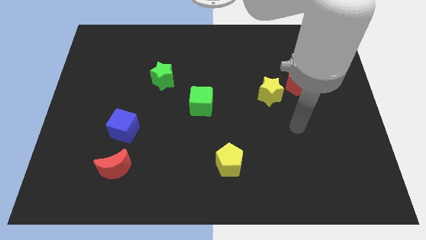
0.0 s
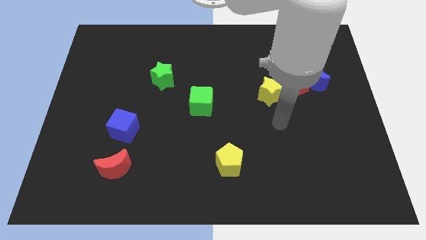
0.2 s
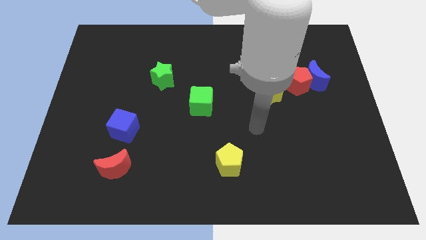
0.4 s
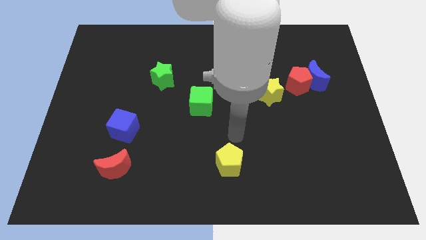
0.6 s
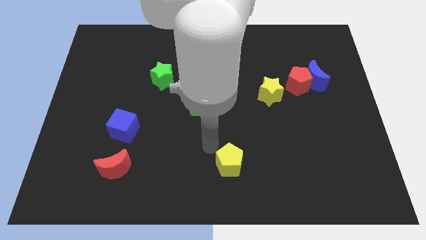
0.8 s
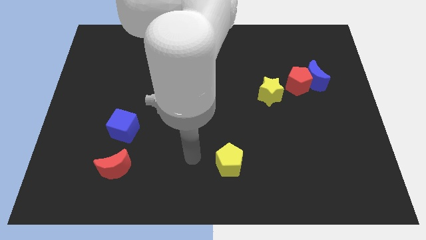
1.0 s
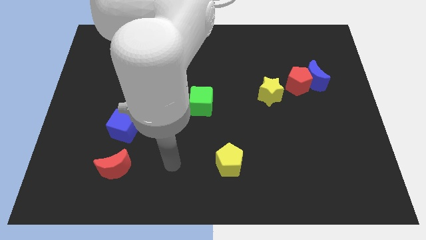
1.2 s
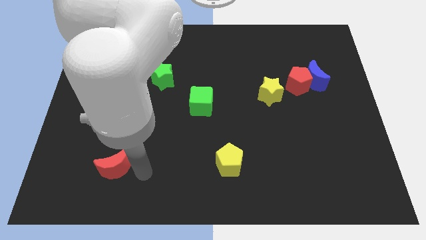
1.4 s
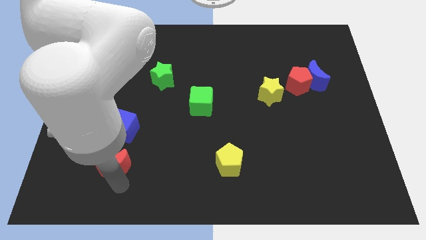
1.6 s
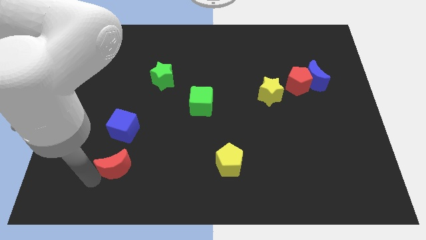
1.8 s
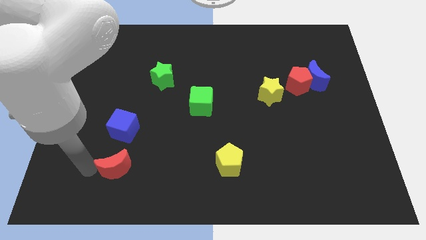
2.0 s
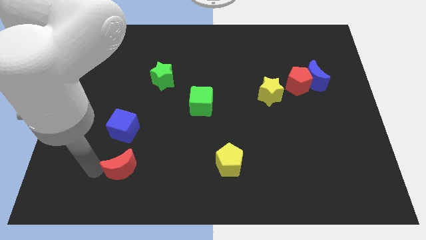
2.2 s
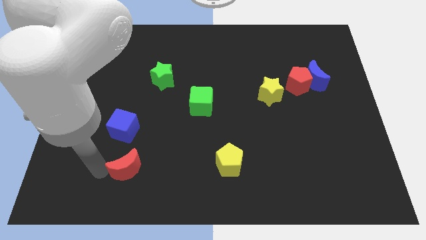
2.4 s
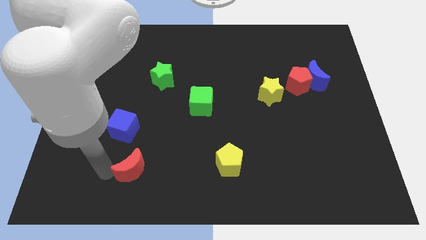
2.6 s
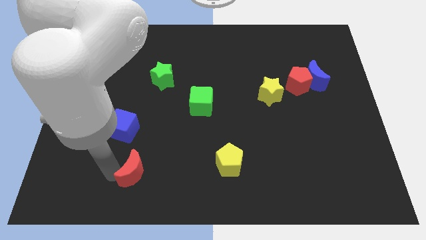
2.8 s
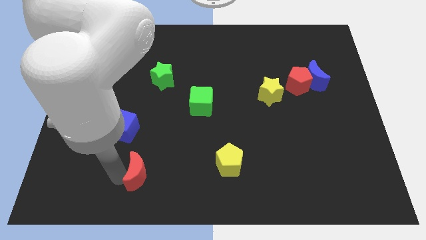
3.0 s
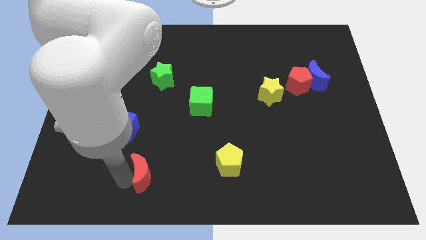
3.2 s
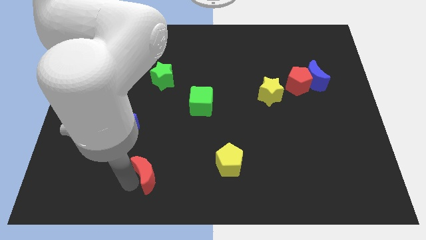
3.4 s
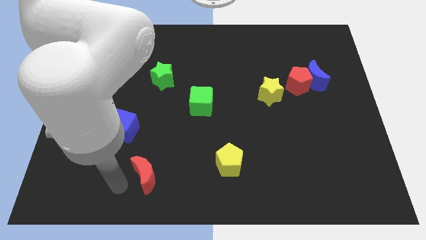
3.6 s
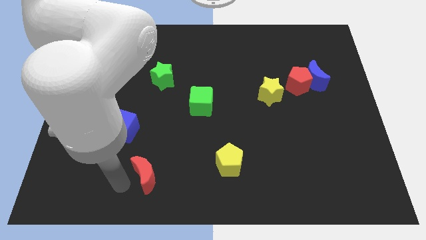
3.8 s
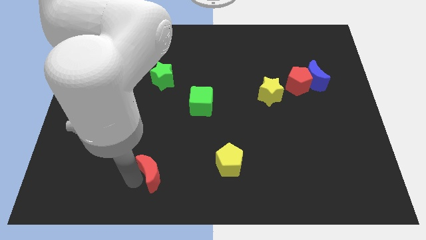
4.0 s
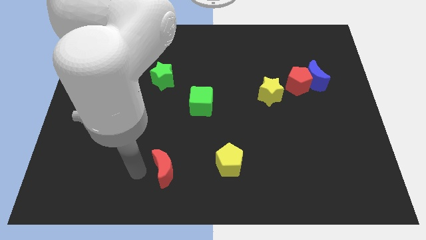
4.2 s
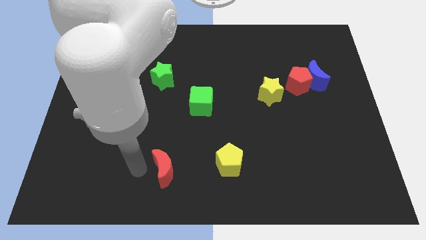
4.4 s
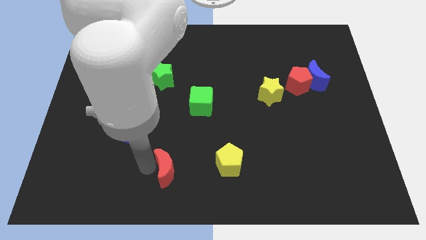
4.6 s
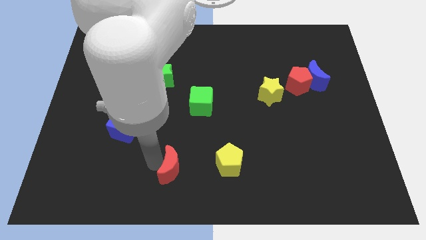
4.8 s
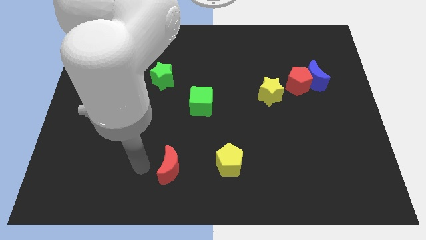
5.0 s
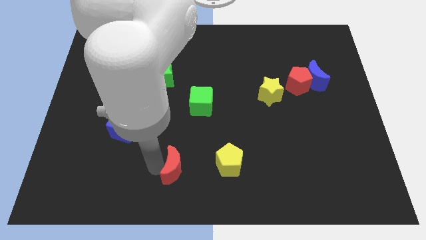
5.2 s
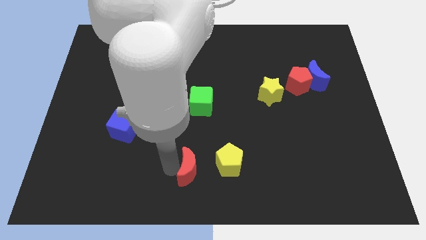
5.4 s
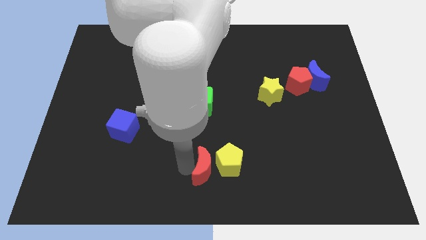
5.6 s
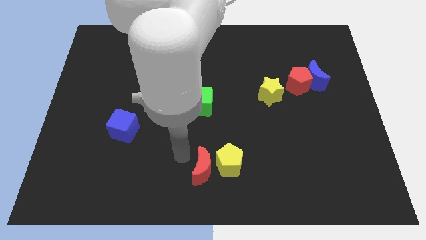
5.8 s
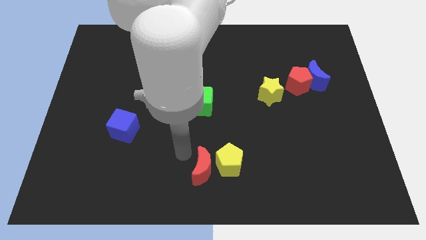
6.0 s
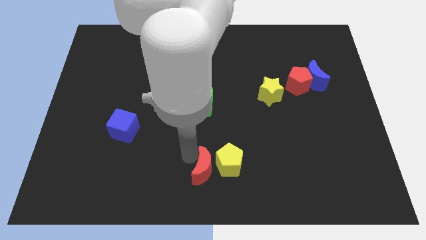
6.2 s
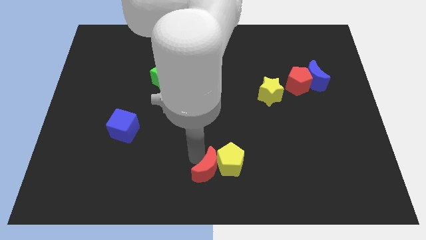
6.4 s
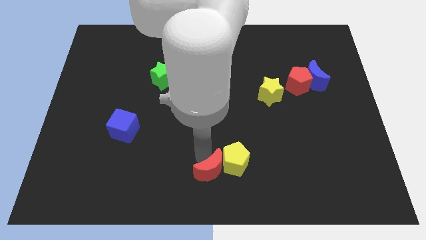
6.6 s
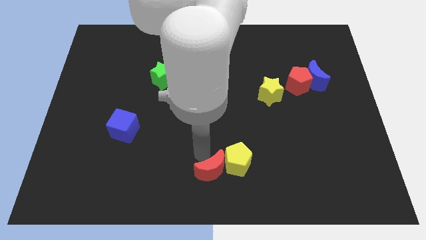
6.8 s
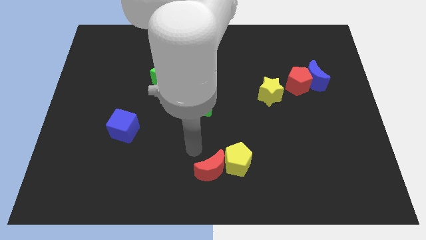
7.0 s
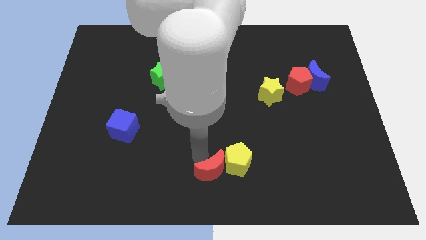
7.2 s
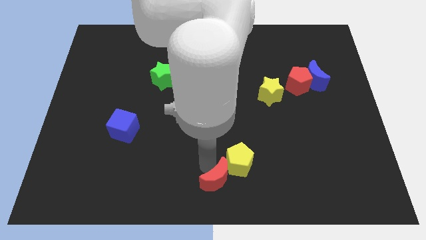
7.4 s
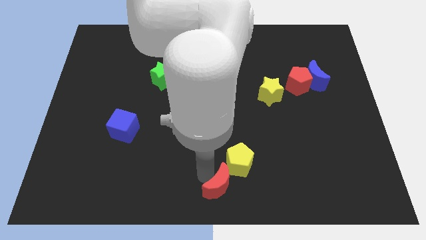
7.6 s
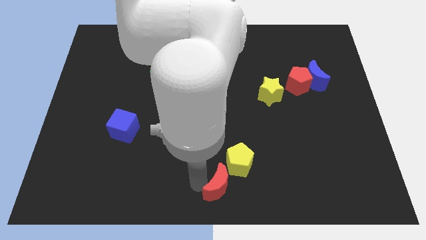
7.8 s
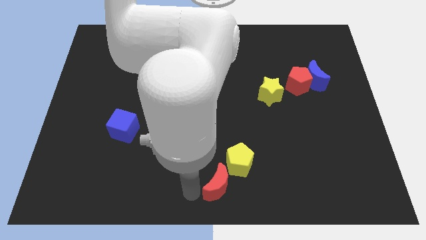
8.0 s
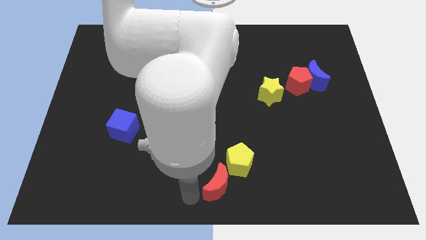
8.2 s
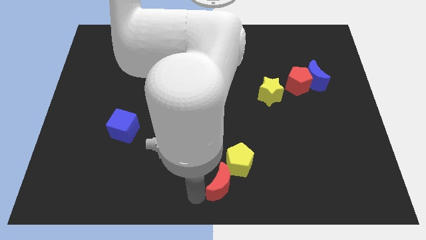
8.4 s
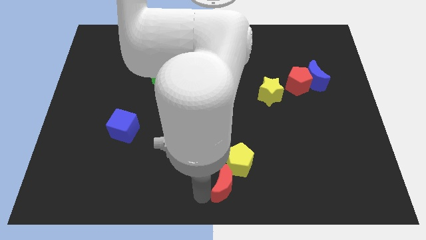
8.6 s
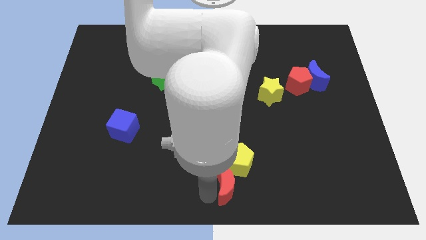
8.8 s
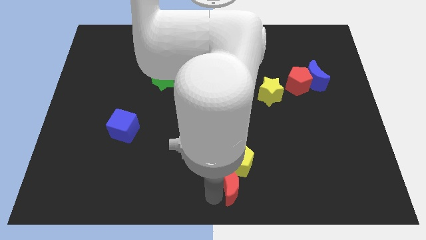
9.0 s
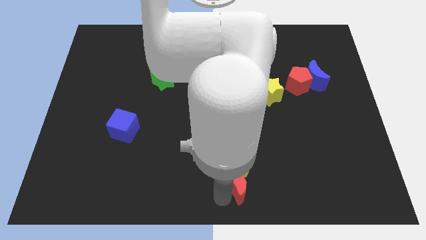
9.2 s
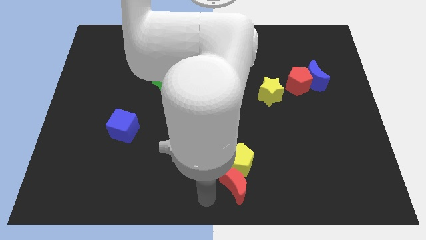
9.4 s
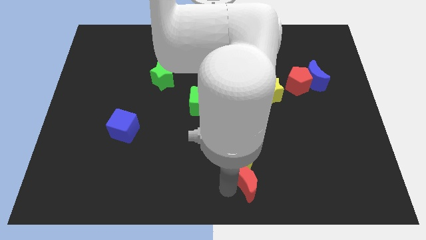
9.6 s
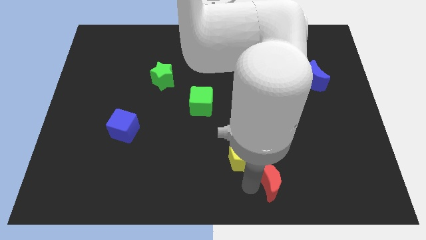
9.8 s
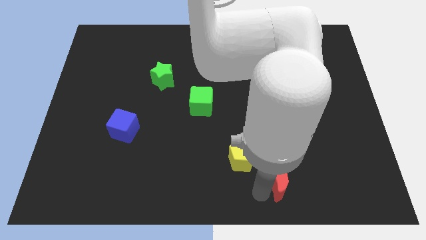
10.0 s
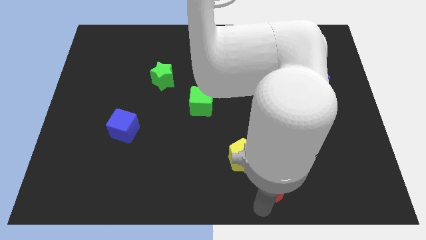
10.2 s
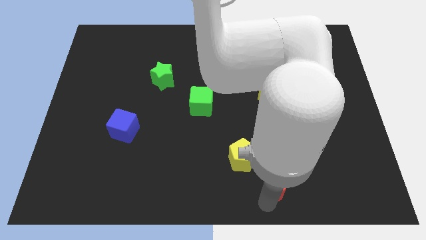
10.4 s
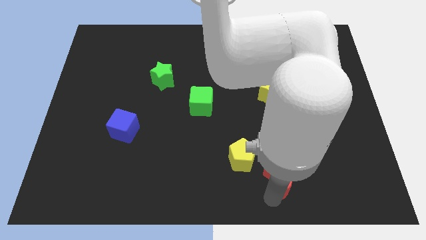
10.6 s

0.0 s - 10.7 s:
move the red moon to the right side of the yellow pentagon

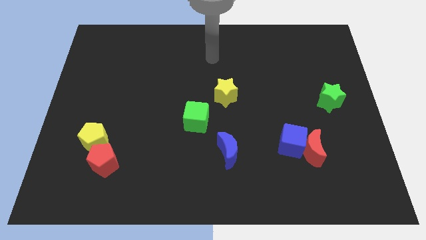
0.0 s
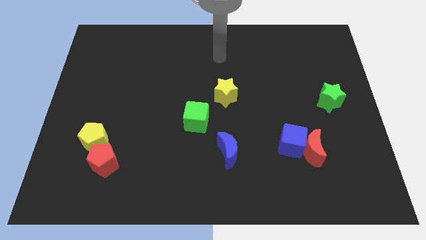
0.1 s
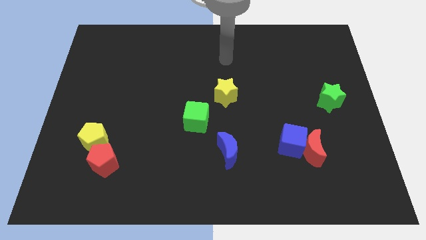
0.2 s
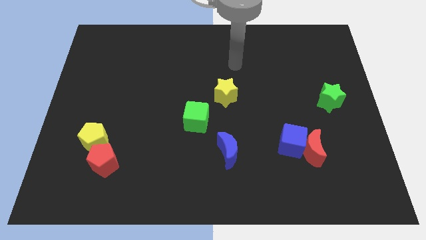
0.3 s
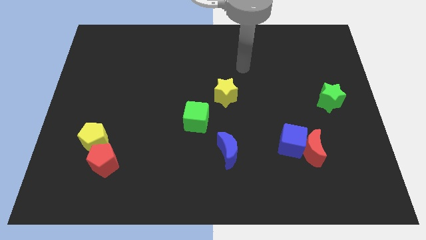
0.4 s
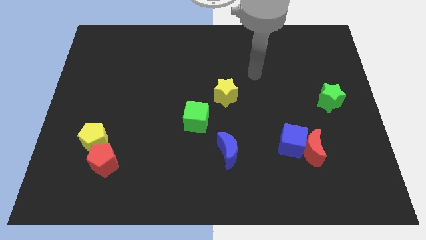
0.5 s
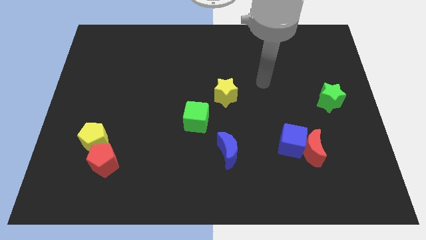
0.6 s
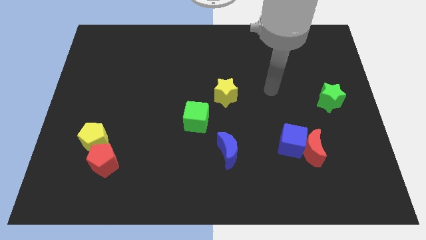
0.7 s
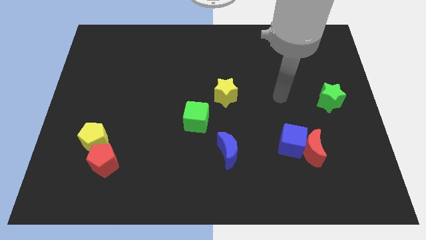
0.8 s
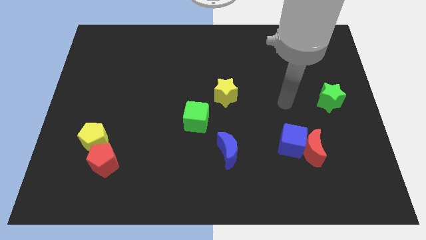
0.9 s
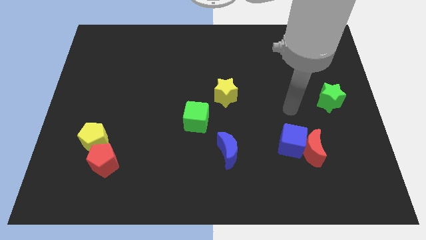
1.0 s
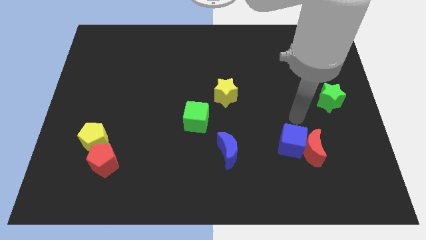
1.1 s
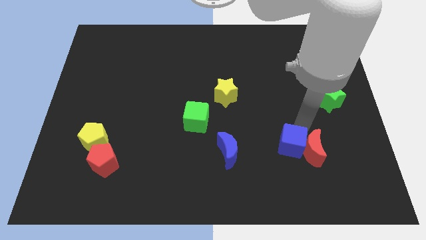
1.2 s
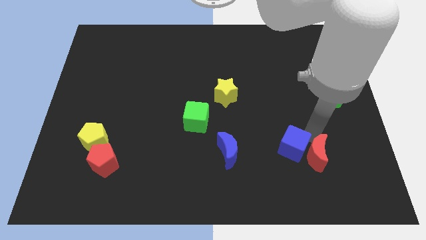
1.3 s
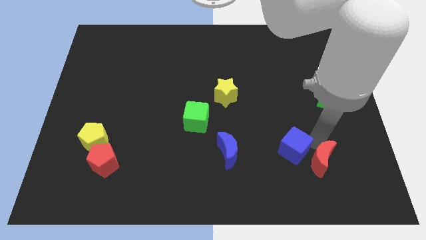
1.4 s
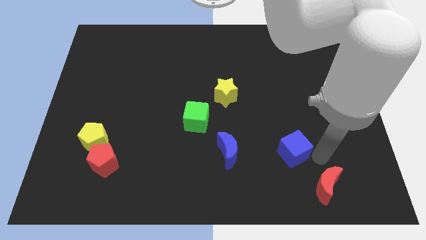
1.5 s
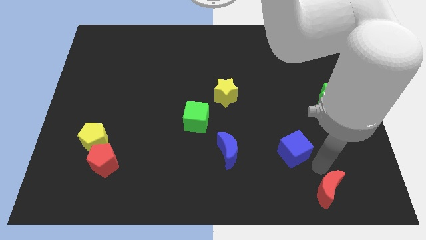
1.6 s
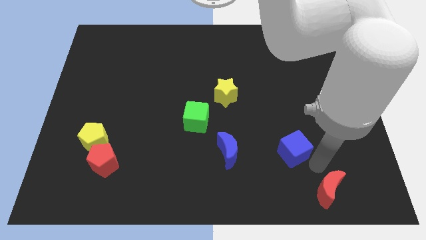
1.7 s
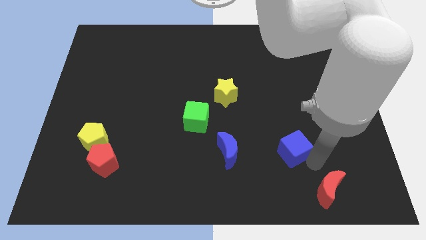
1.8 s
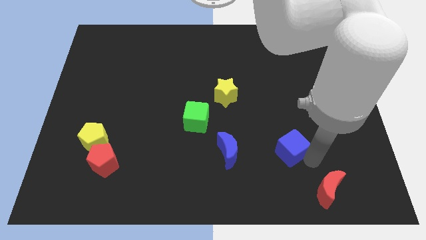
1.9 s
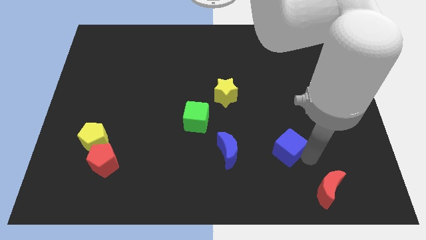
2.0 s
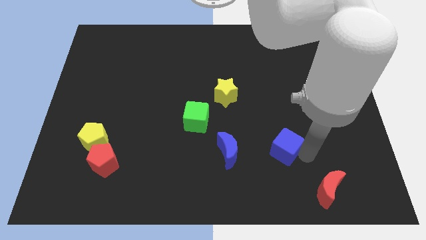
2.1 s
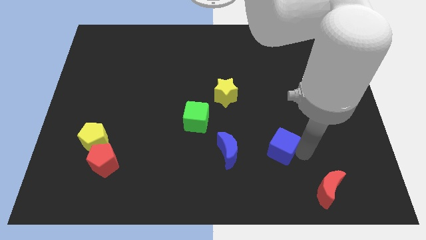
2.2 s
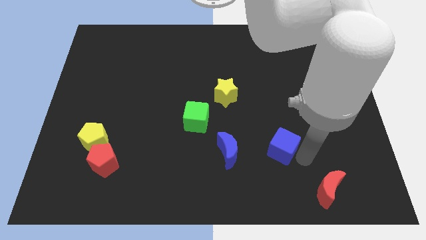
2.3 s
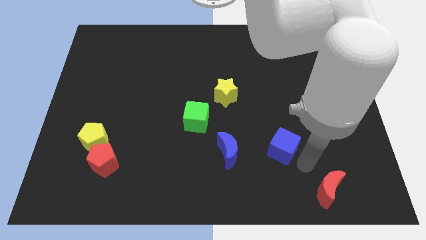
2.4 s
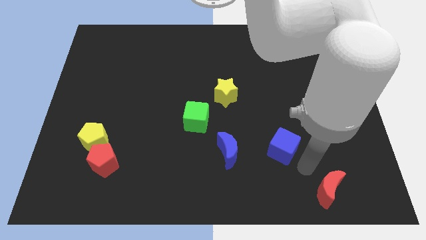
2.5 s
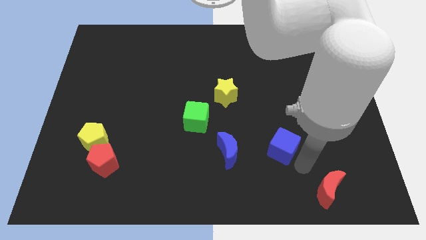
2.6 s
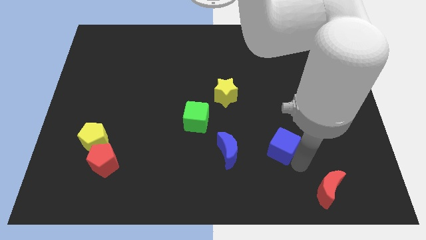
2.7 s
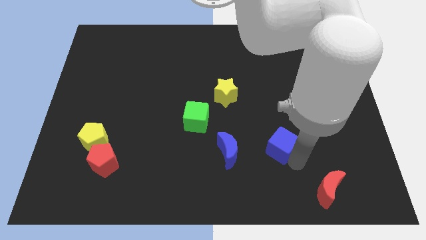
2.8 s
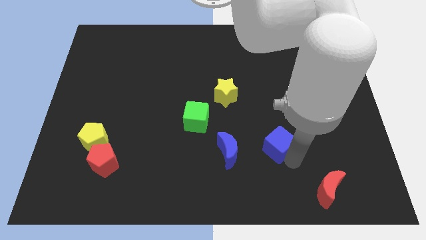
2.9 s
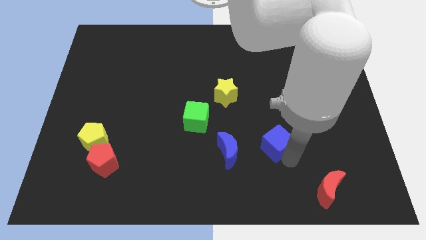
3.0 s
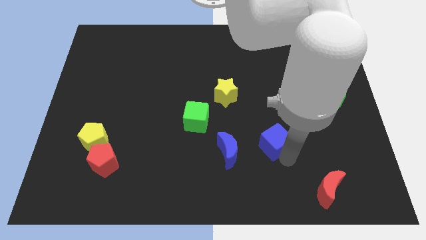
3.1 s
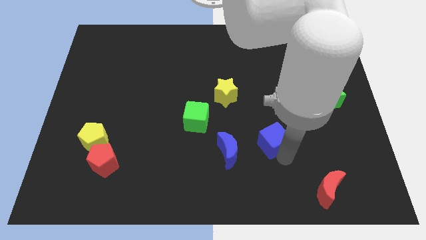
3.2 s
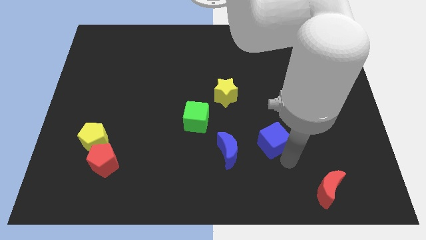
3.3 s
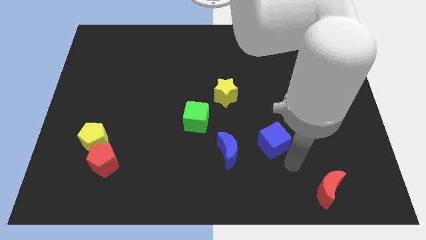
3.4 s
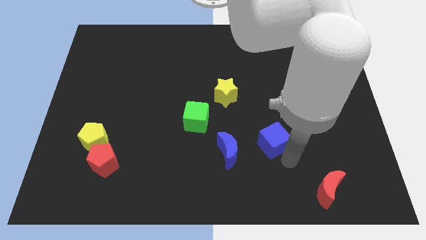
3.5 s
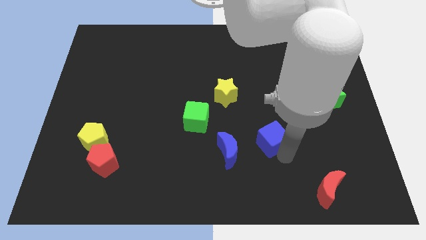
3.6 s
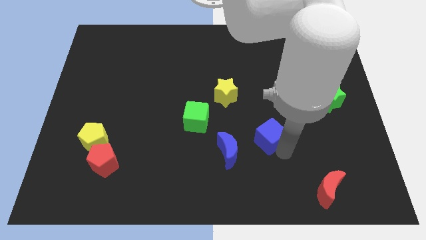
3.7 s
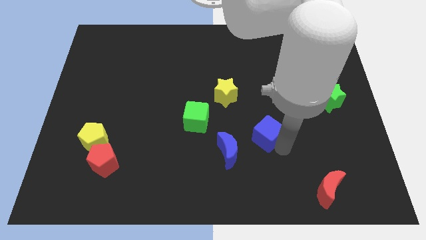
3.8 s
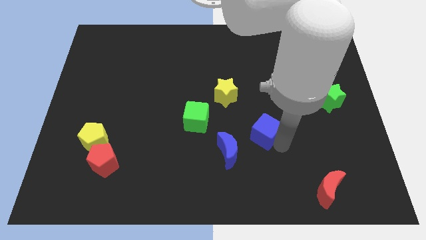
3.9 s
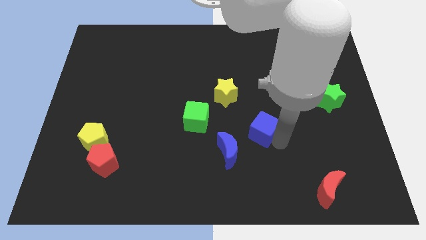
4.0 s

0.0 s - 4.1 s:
move the blue cube to the right side of the green cube
